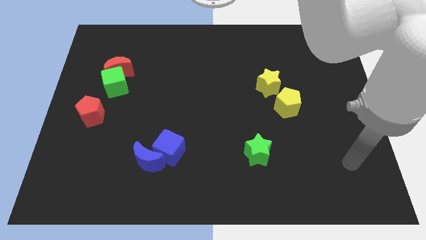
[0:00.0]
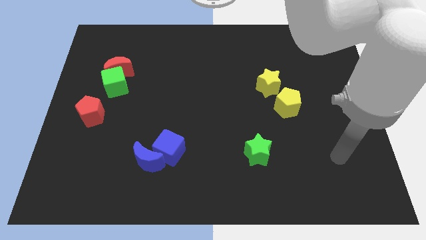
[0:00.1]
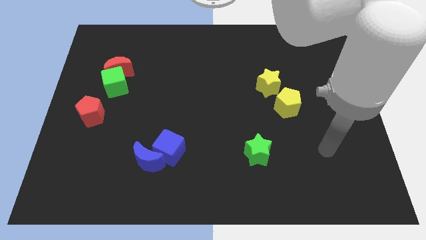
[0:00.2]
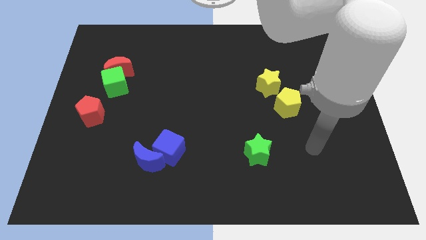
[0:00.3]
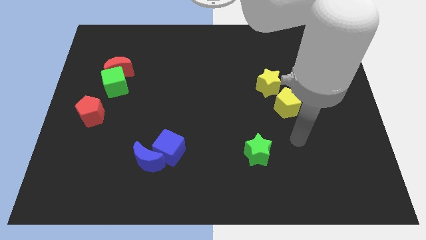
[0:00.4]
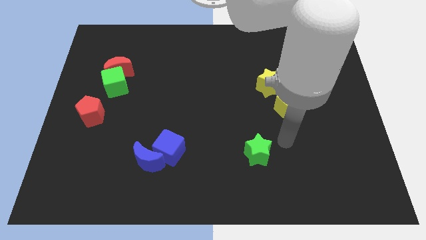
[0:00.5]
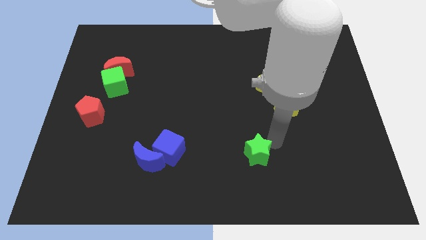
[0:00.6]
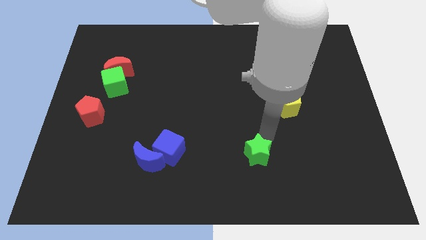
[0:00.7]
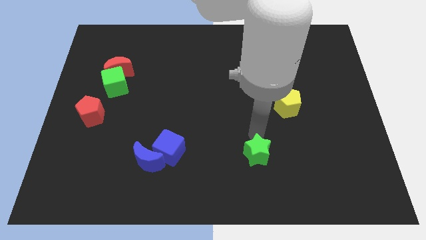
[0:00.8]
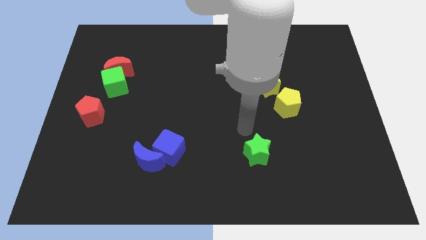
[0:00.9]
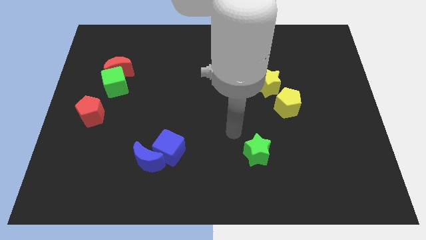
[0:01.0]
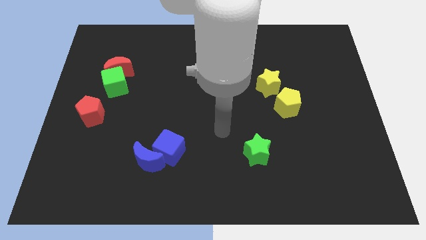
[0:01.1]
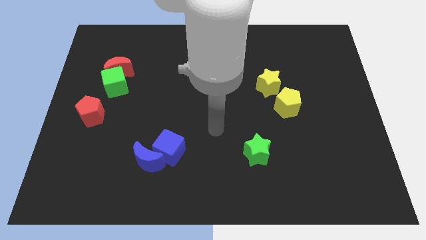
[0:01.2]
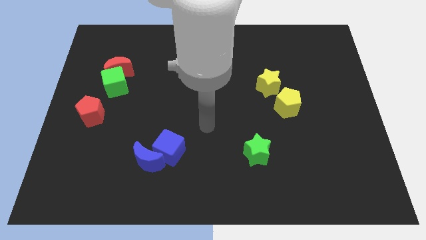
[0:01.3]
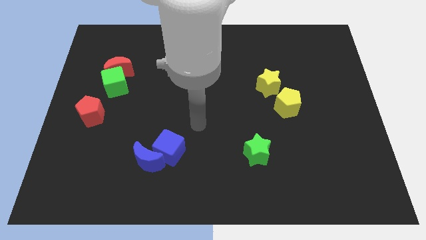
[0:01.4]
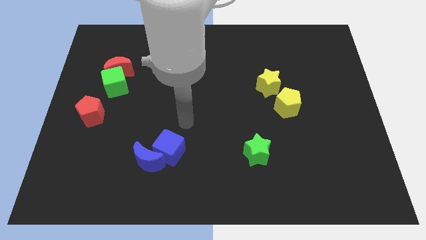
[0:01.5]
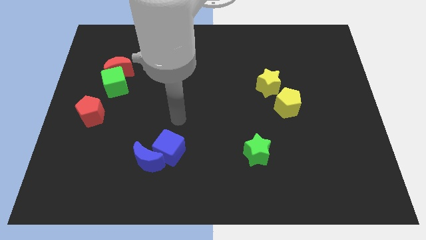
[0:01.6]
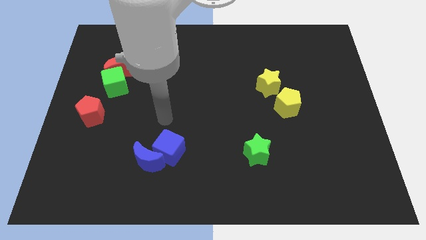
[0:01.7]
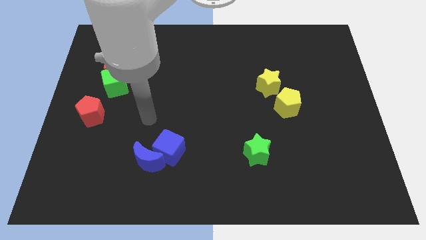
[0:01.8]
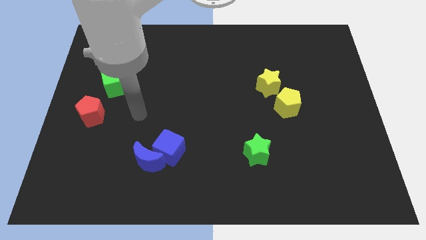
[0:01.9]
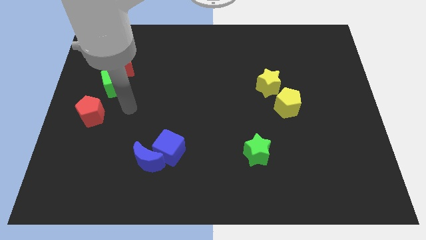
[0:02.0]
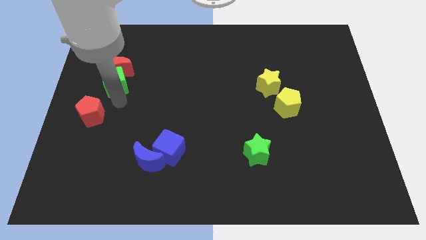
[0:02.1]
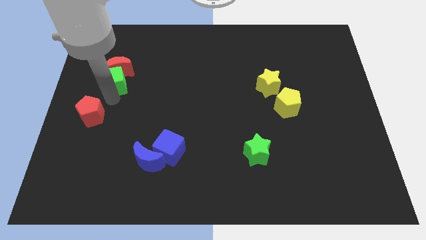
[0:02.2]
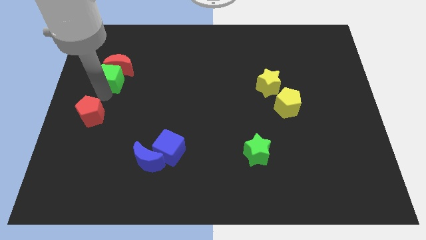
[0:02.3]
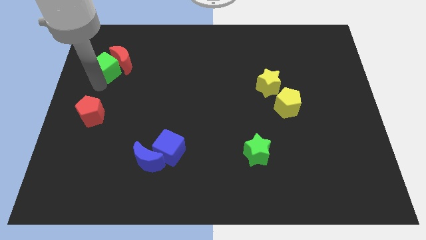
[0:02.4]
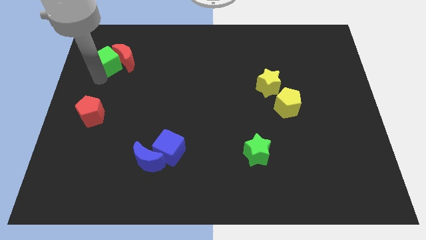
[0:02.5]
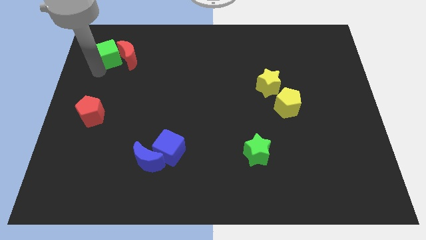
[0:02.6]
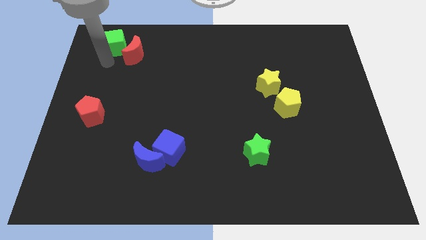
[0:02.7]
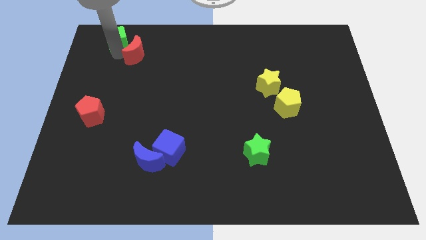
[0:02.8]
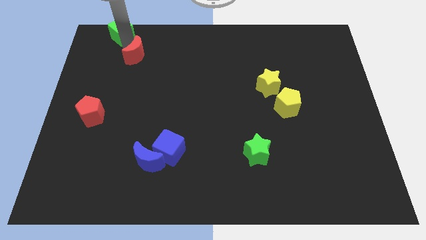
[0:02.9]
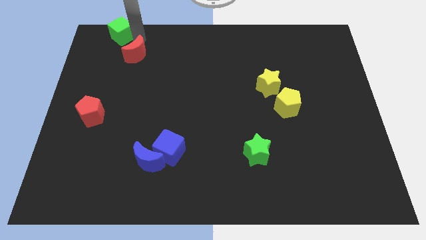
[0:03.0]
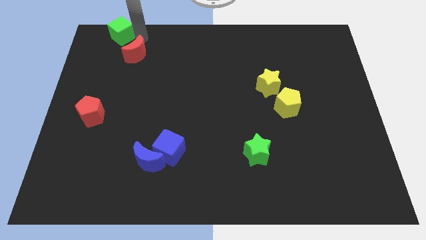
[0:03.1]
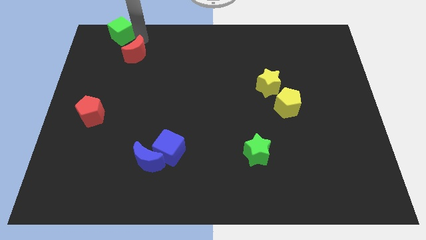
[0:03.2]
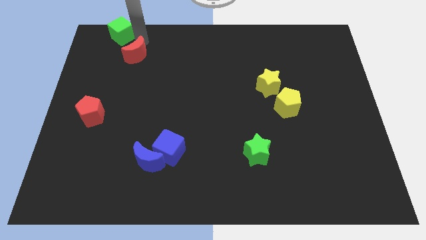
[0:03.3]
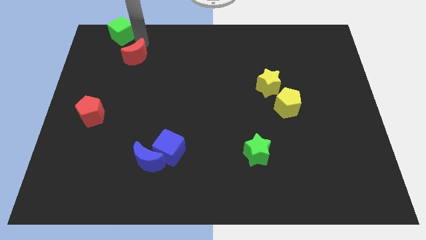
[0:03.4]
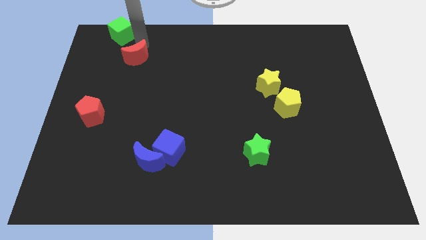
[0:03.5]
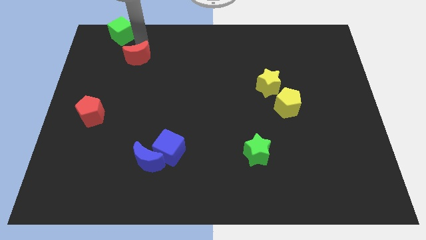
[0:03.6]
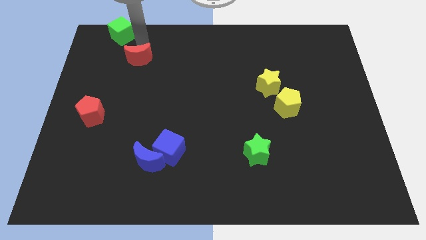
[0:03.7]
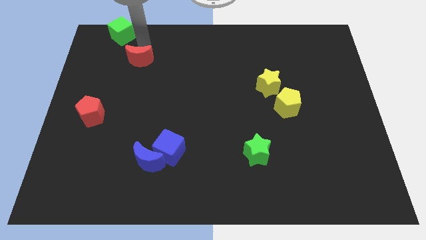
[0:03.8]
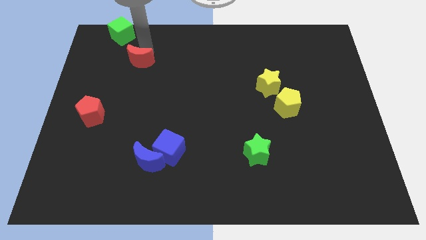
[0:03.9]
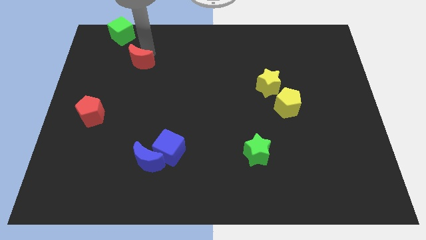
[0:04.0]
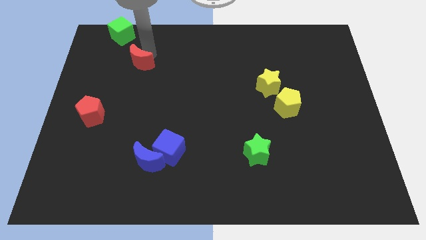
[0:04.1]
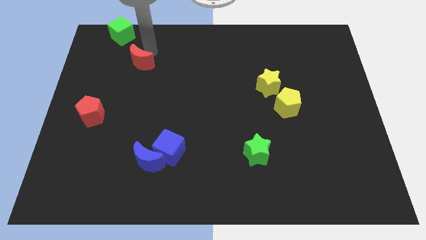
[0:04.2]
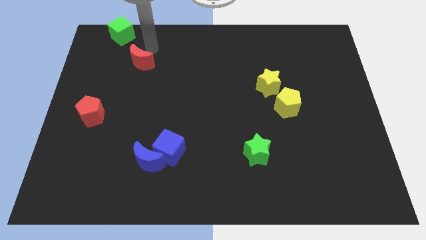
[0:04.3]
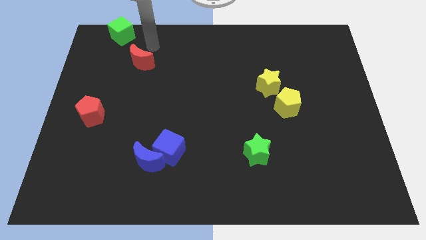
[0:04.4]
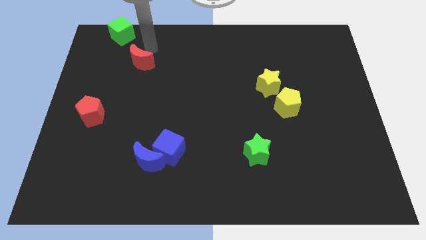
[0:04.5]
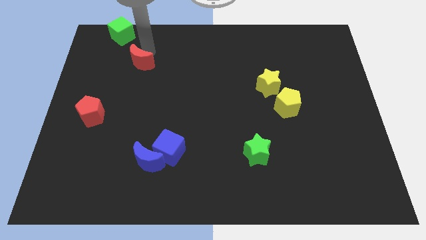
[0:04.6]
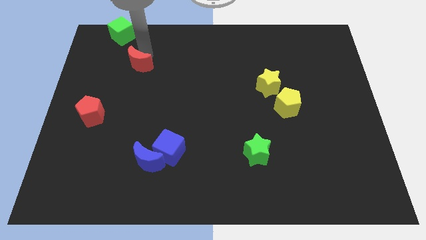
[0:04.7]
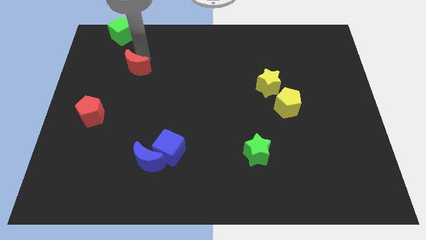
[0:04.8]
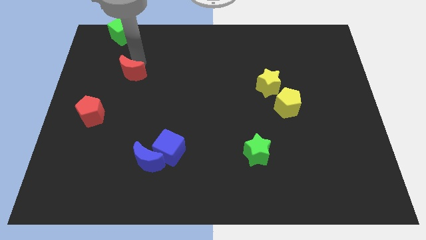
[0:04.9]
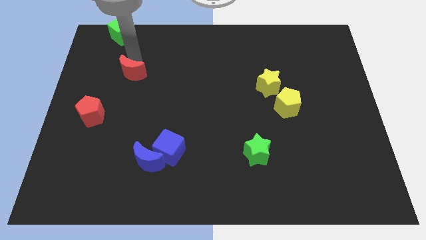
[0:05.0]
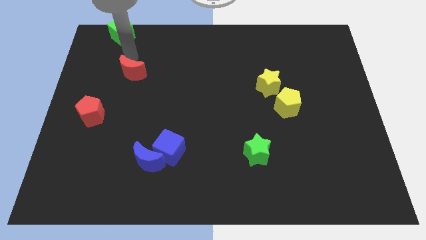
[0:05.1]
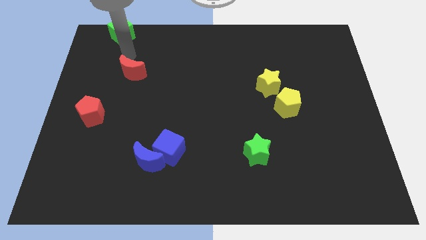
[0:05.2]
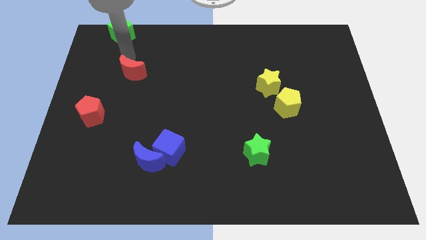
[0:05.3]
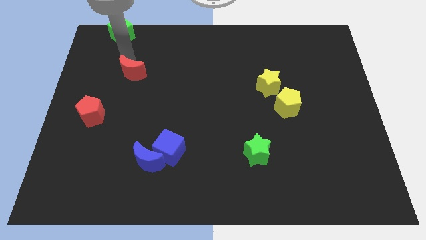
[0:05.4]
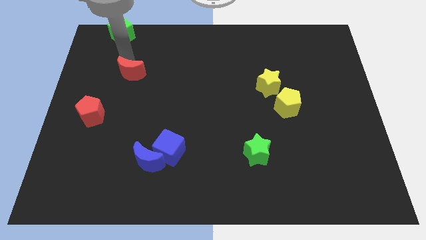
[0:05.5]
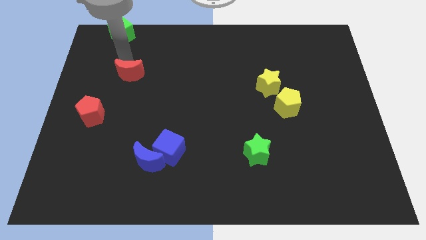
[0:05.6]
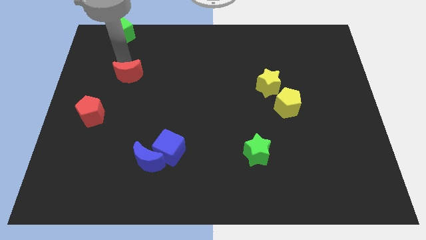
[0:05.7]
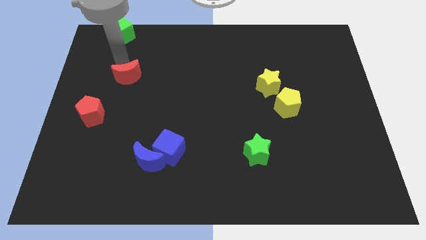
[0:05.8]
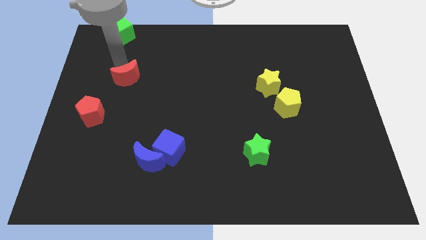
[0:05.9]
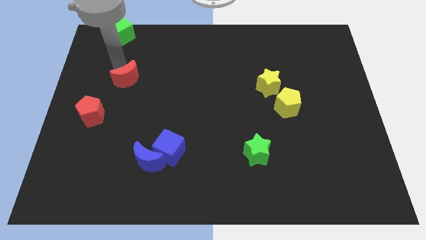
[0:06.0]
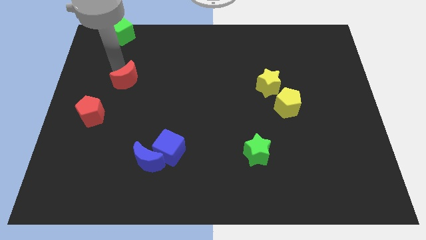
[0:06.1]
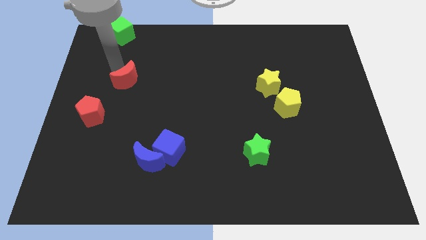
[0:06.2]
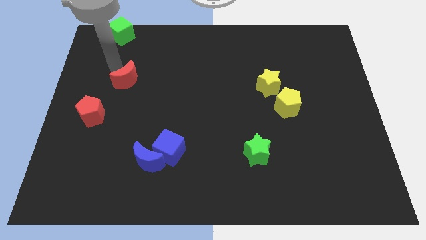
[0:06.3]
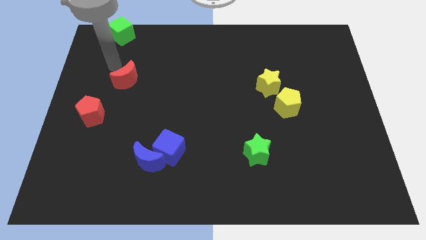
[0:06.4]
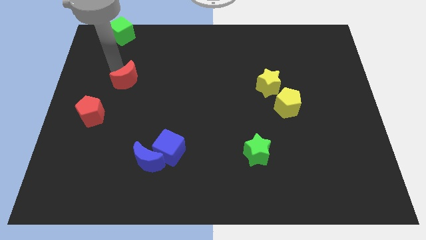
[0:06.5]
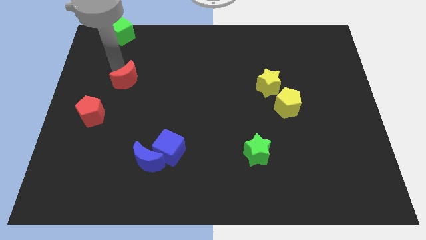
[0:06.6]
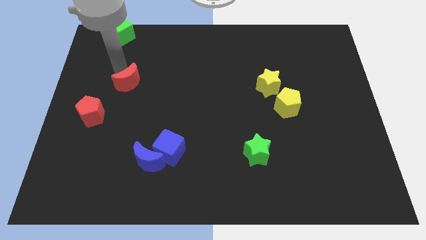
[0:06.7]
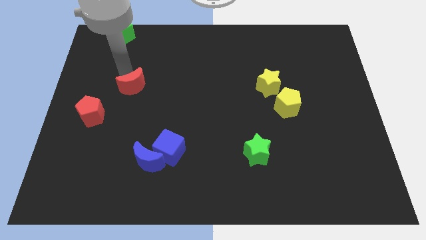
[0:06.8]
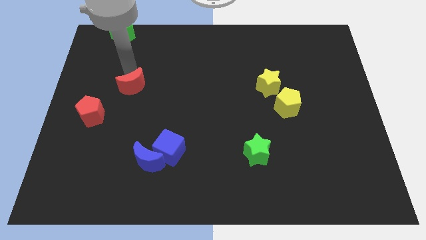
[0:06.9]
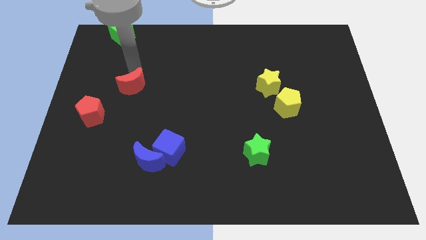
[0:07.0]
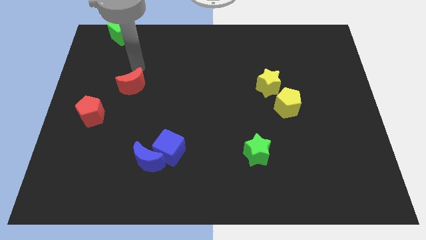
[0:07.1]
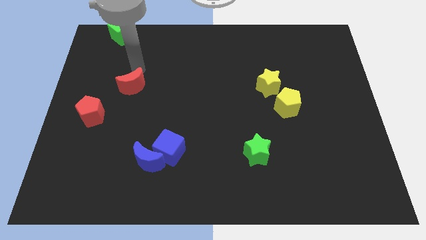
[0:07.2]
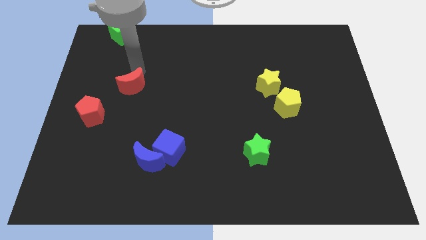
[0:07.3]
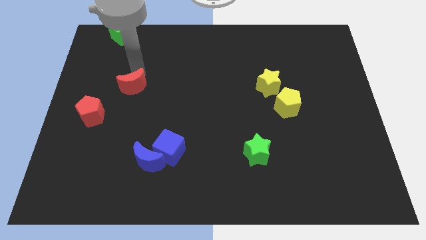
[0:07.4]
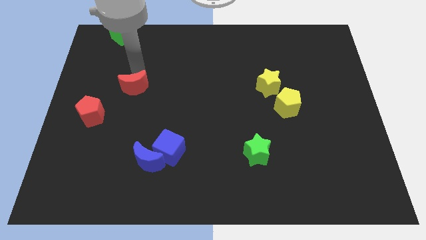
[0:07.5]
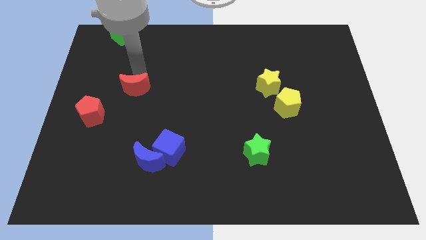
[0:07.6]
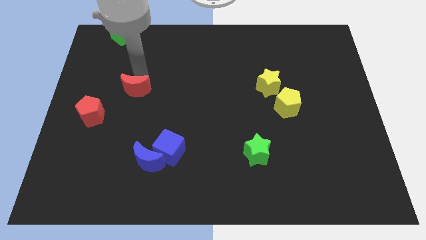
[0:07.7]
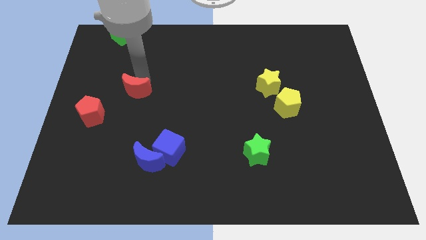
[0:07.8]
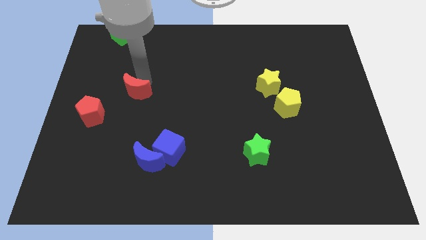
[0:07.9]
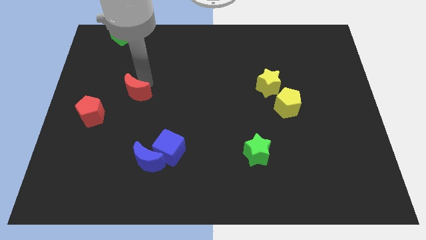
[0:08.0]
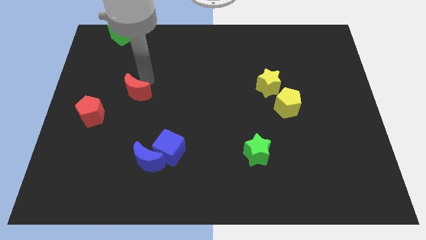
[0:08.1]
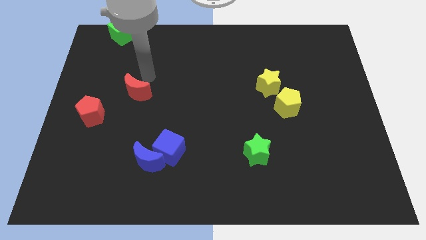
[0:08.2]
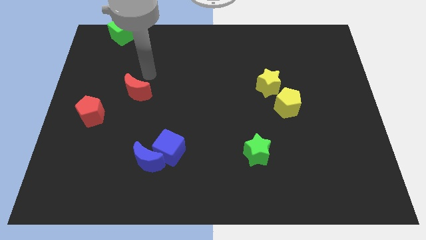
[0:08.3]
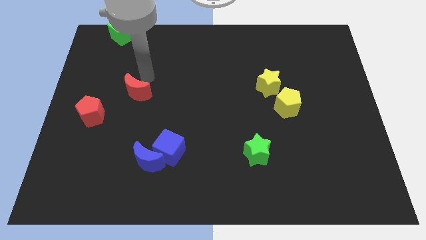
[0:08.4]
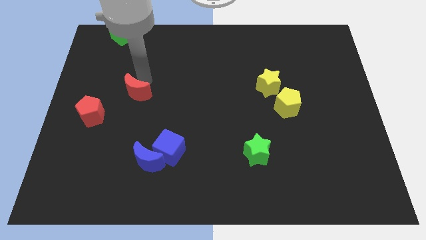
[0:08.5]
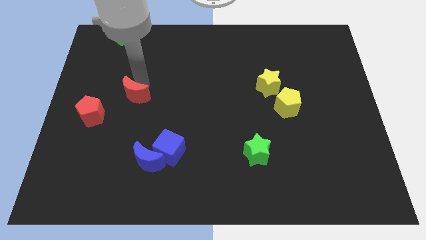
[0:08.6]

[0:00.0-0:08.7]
slightly move the red moon down
